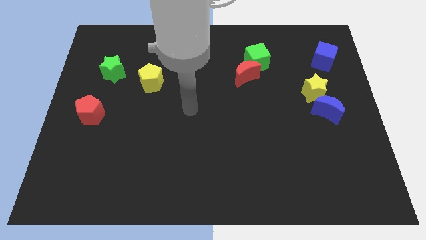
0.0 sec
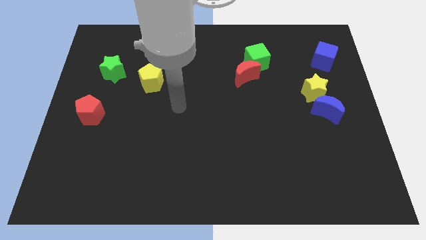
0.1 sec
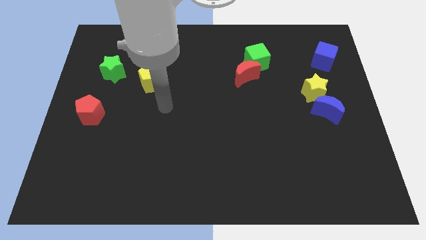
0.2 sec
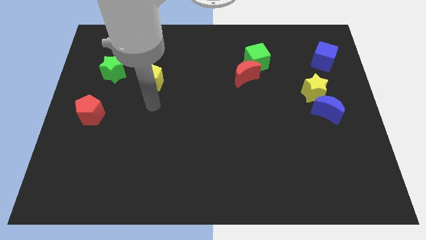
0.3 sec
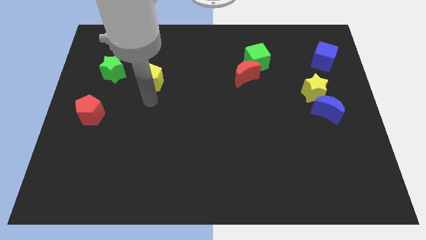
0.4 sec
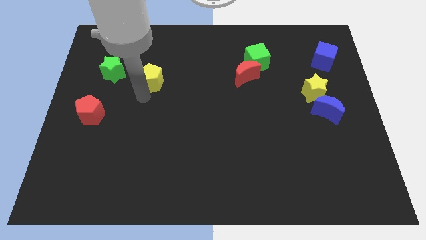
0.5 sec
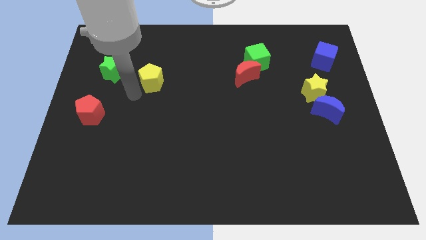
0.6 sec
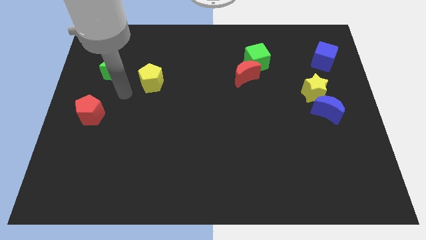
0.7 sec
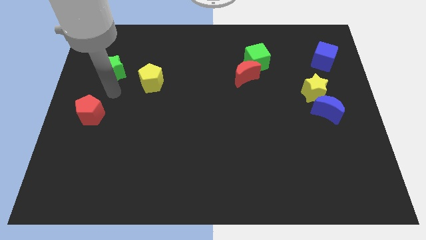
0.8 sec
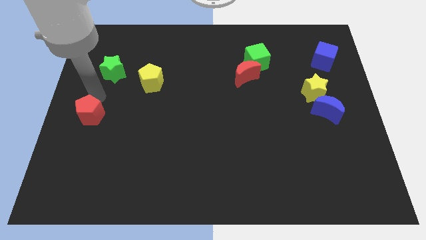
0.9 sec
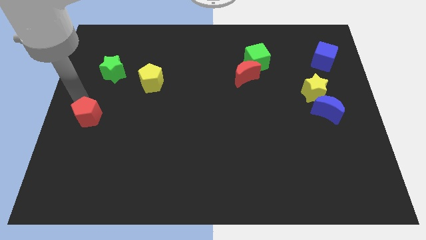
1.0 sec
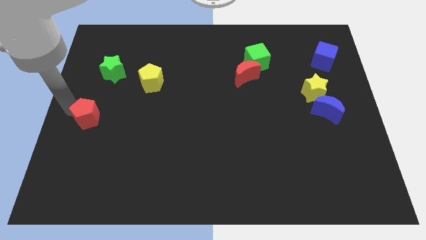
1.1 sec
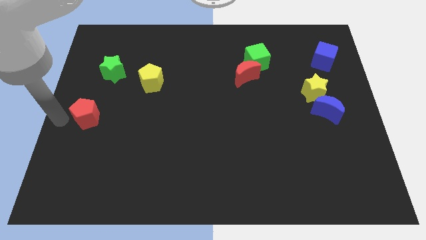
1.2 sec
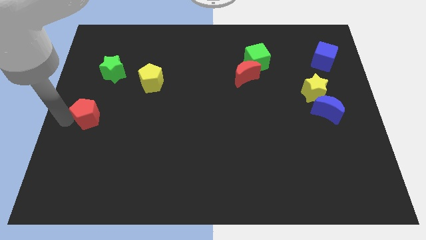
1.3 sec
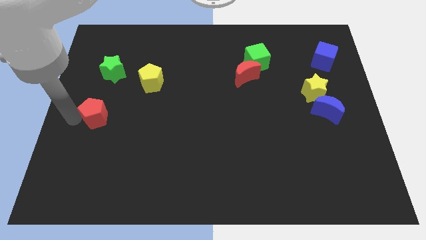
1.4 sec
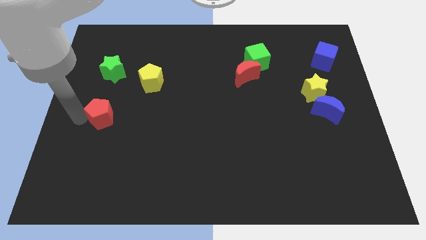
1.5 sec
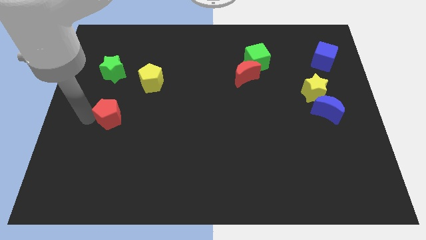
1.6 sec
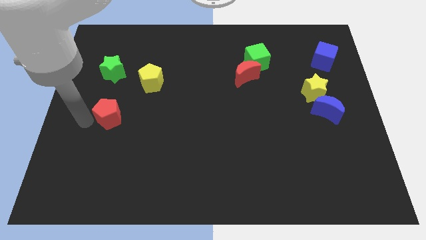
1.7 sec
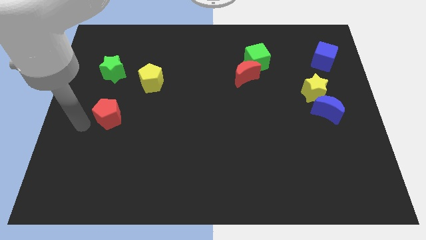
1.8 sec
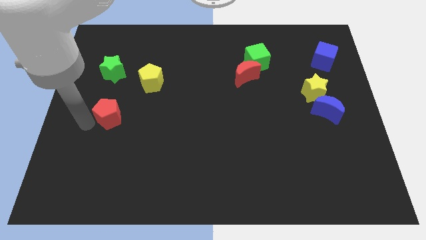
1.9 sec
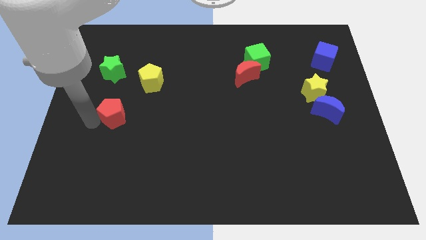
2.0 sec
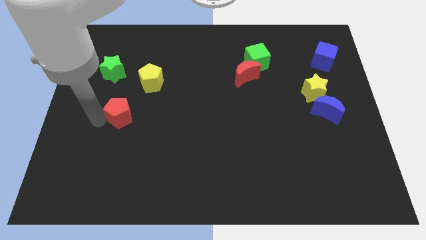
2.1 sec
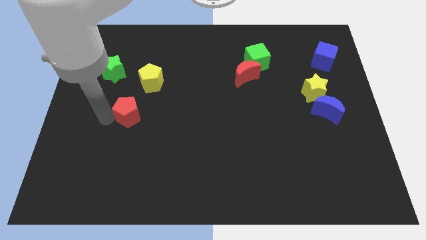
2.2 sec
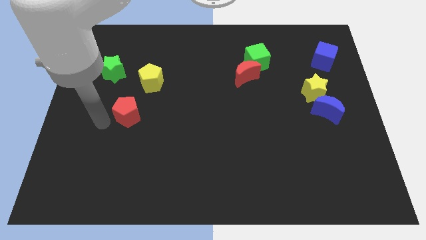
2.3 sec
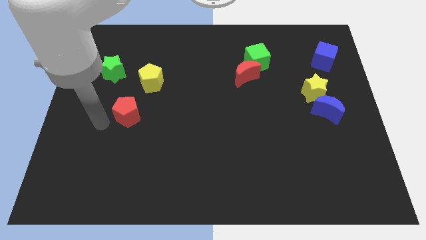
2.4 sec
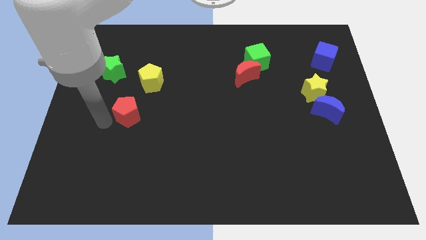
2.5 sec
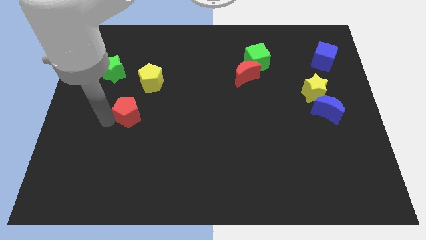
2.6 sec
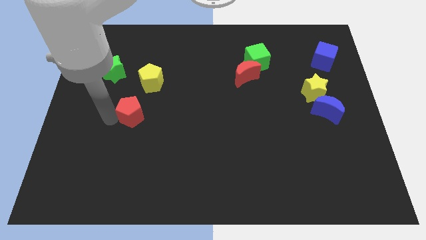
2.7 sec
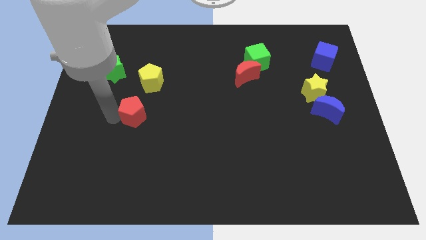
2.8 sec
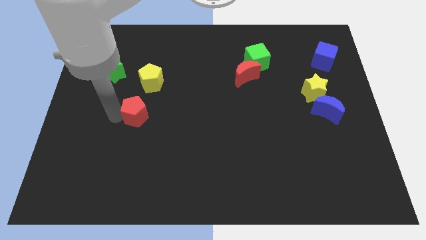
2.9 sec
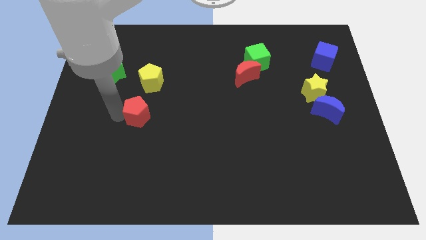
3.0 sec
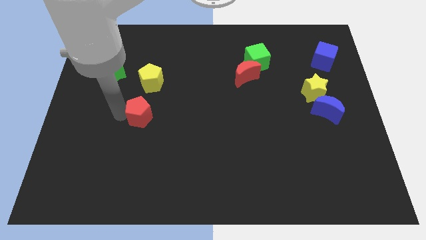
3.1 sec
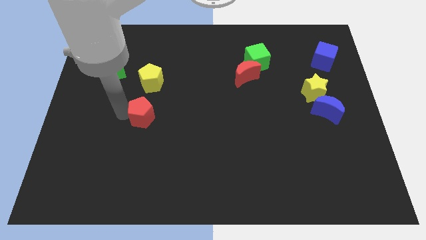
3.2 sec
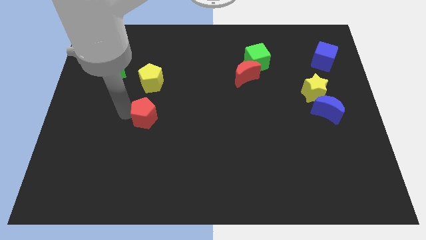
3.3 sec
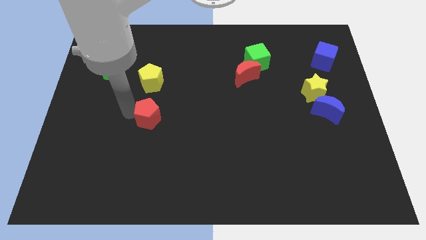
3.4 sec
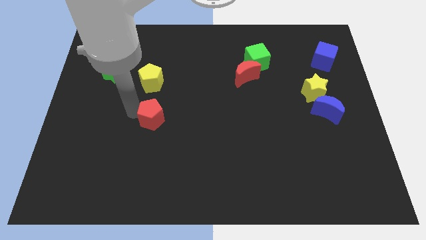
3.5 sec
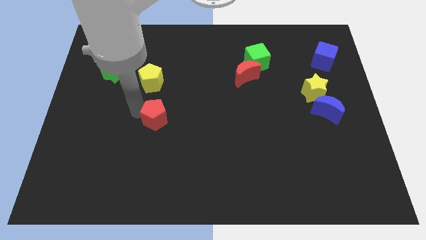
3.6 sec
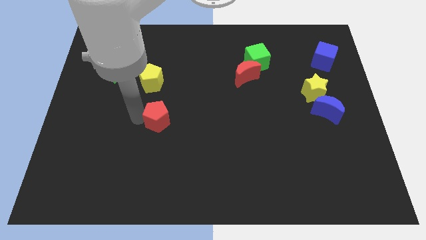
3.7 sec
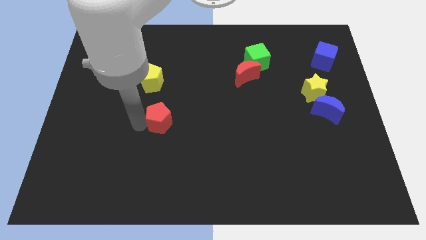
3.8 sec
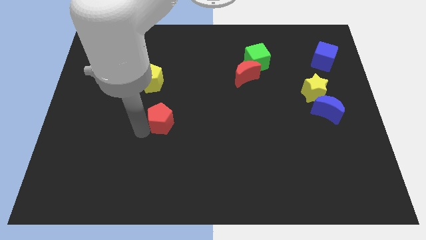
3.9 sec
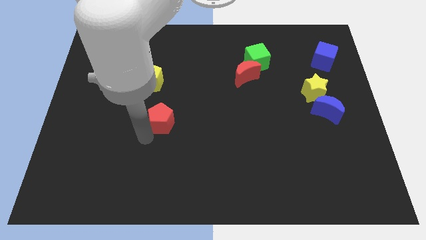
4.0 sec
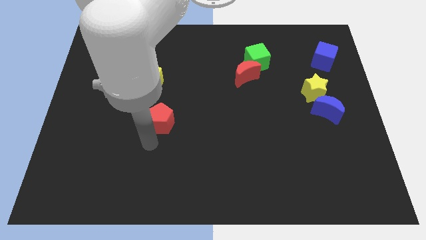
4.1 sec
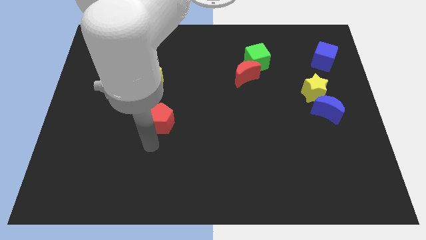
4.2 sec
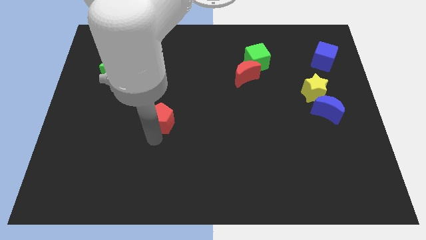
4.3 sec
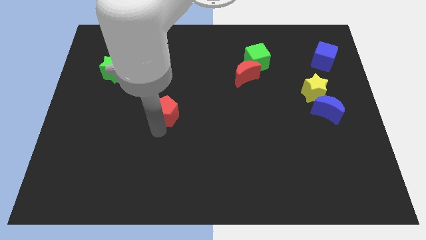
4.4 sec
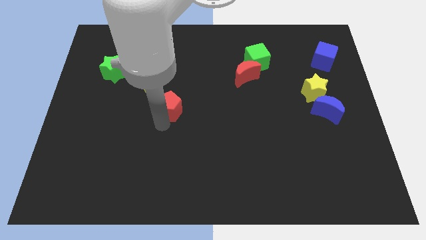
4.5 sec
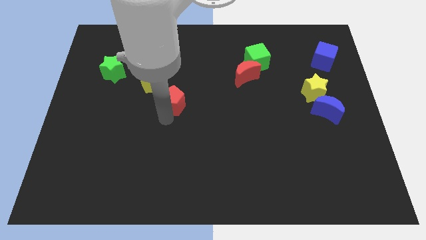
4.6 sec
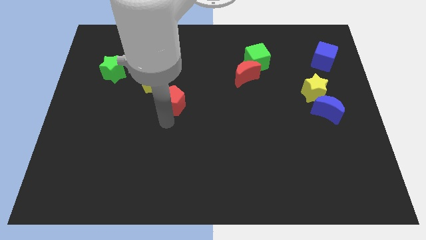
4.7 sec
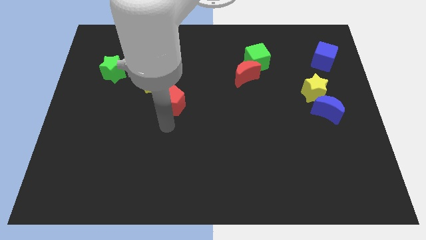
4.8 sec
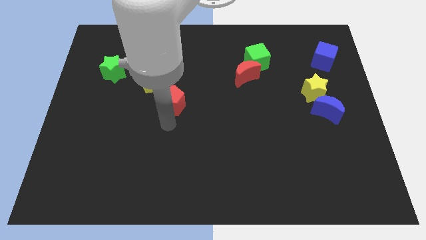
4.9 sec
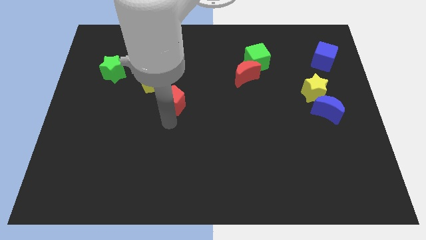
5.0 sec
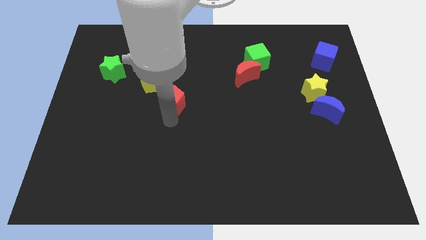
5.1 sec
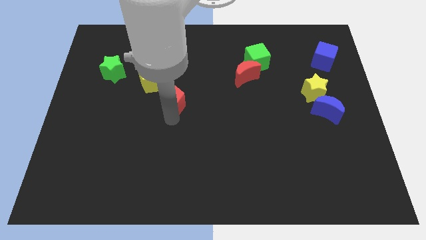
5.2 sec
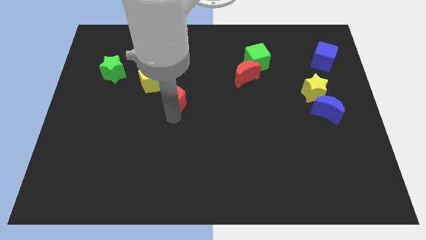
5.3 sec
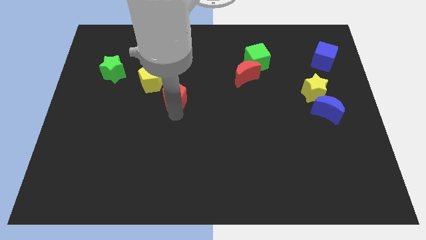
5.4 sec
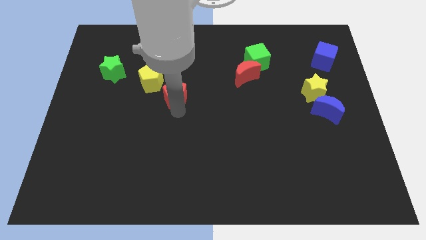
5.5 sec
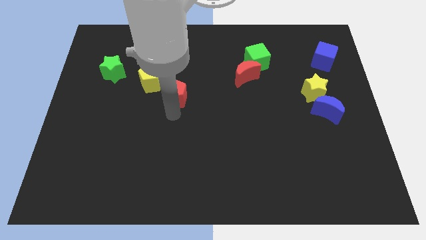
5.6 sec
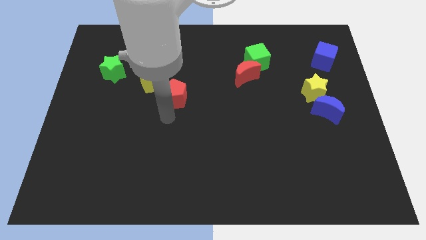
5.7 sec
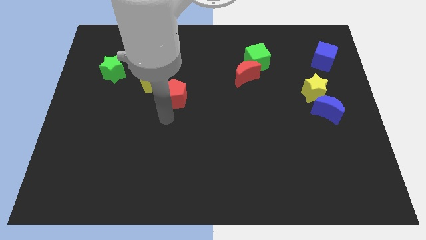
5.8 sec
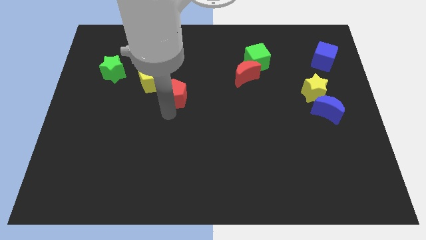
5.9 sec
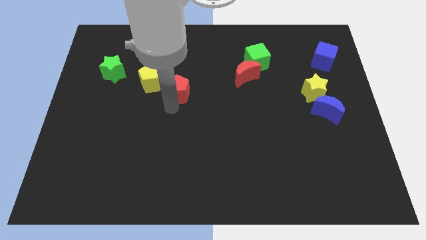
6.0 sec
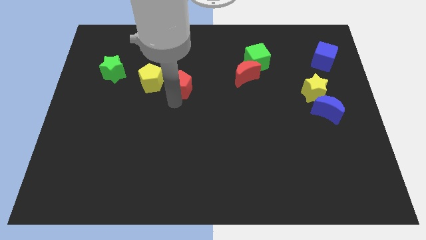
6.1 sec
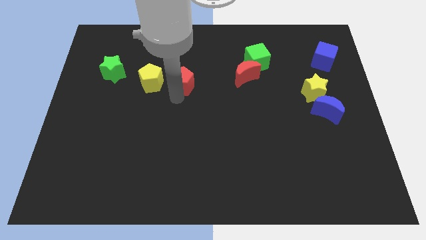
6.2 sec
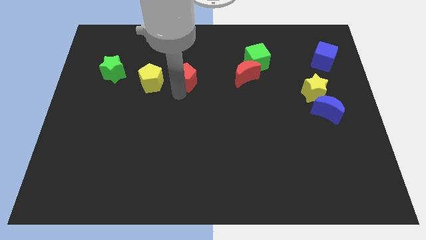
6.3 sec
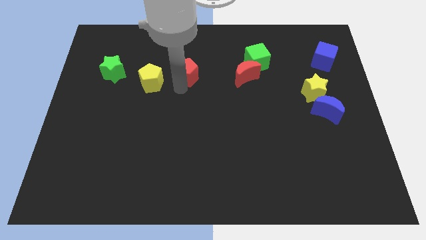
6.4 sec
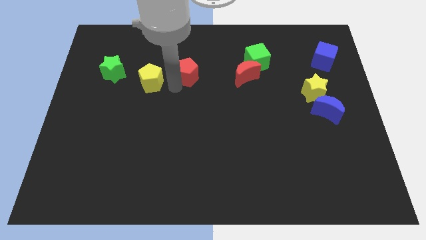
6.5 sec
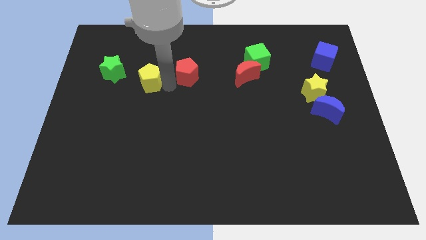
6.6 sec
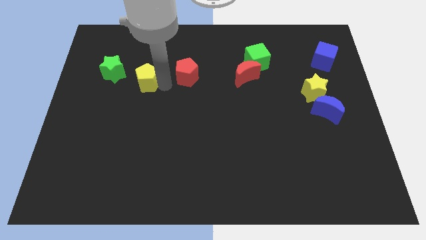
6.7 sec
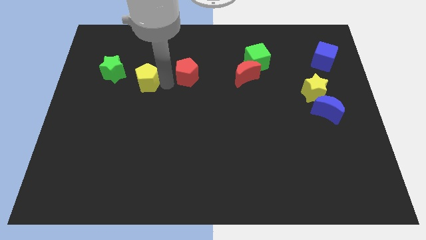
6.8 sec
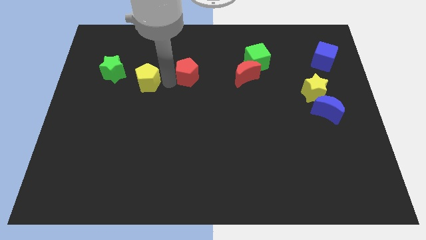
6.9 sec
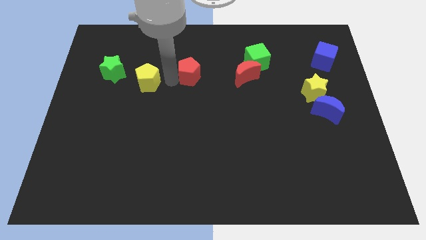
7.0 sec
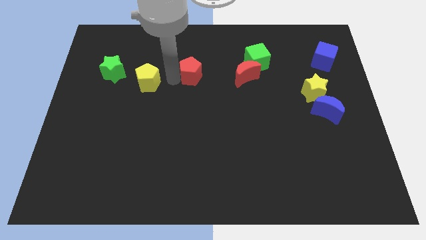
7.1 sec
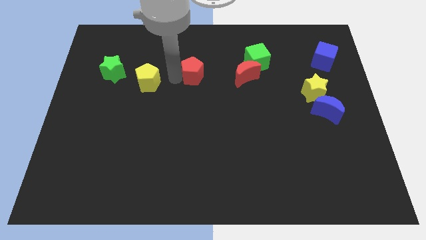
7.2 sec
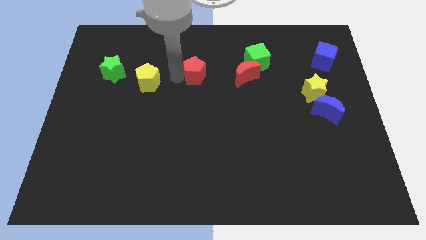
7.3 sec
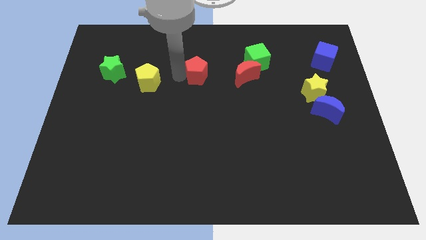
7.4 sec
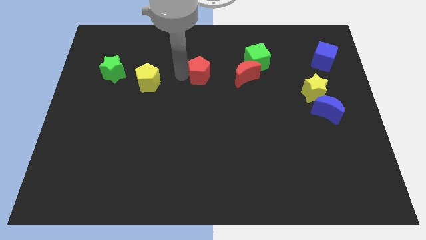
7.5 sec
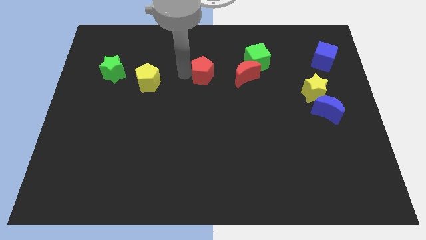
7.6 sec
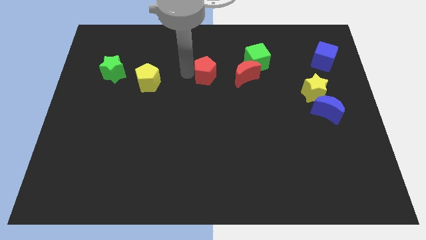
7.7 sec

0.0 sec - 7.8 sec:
push the red pentagon to the left side of the green cube
